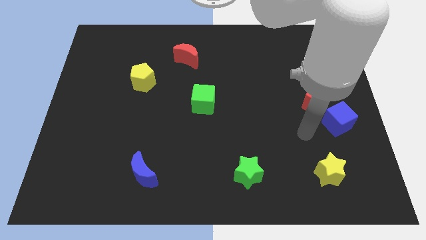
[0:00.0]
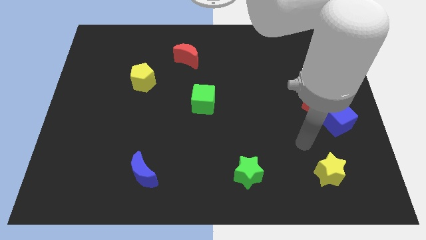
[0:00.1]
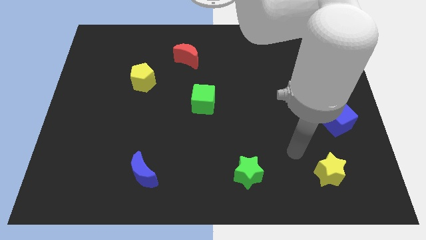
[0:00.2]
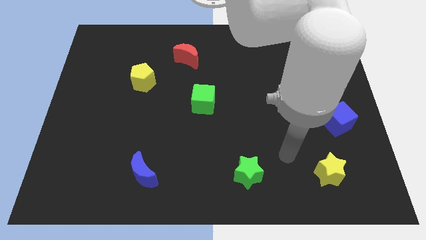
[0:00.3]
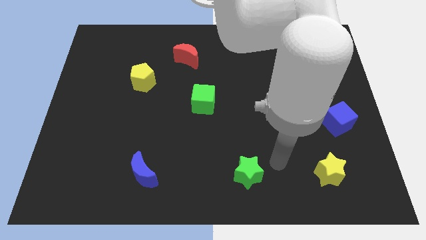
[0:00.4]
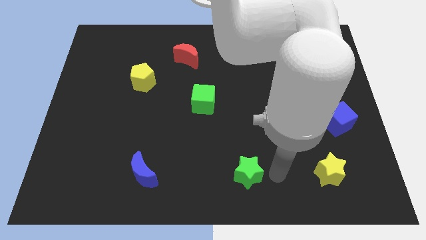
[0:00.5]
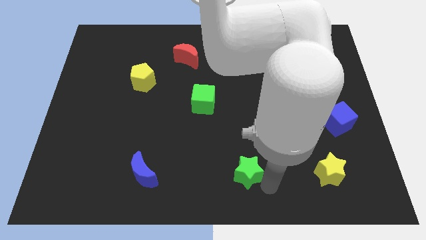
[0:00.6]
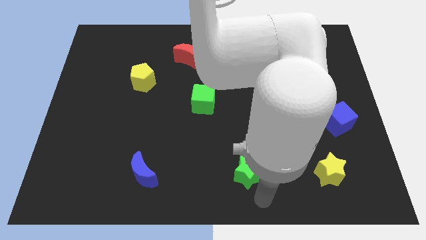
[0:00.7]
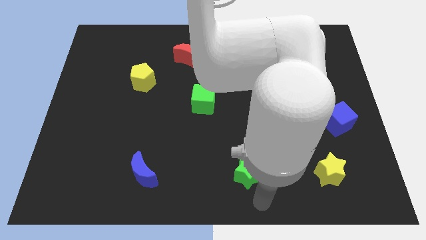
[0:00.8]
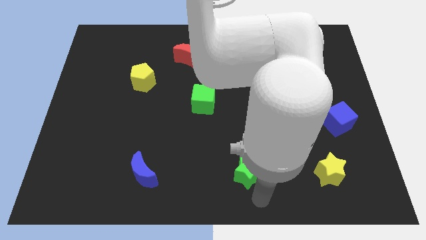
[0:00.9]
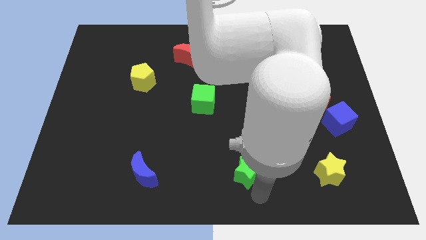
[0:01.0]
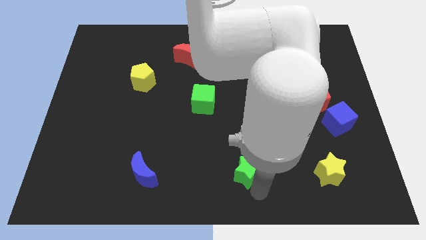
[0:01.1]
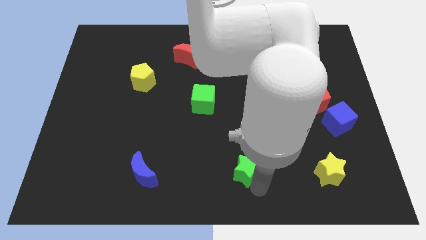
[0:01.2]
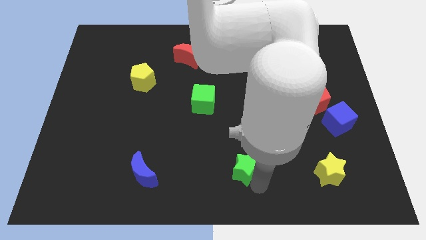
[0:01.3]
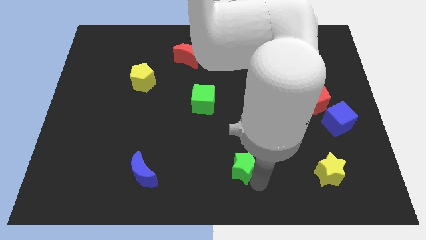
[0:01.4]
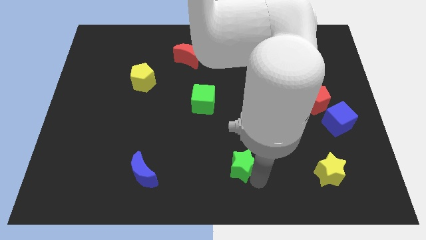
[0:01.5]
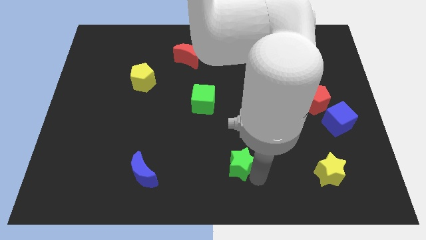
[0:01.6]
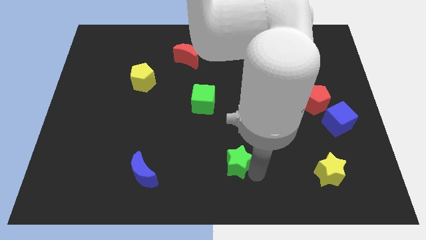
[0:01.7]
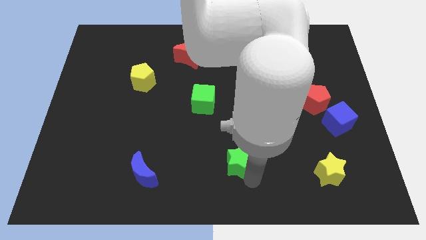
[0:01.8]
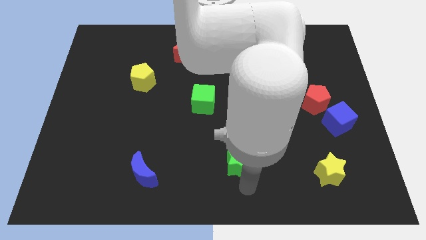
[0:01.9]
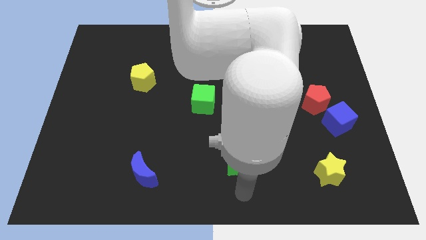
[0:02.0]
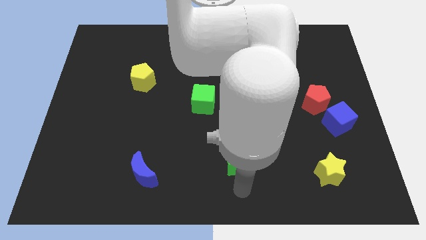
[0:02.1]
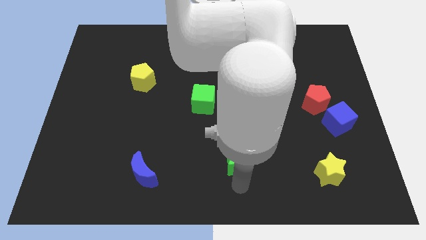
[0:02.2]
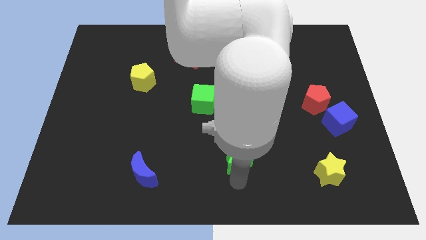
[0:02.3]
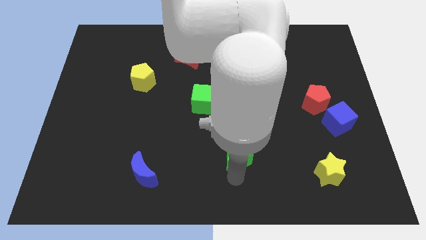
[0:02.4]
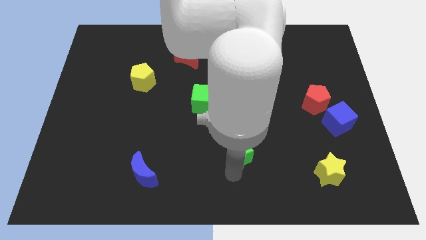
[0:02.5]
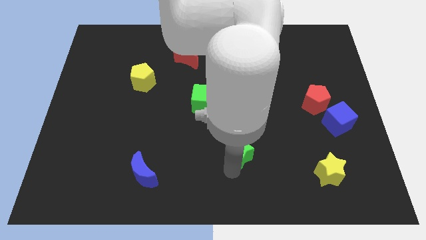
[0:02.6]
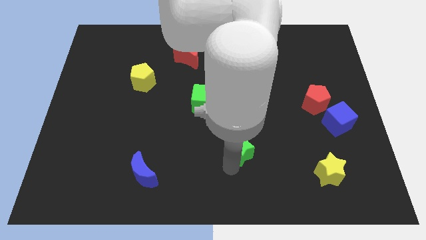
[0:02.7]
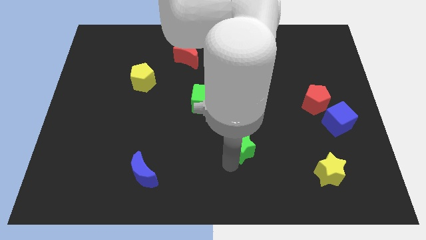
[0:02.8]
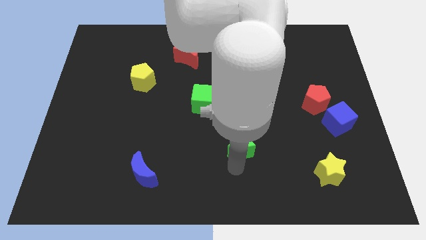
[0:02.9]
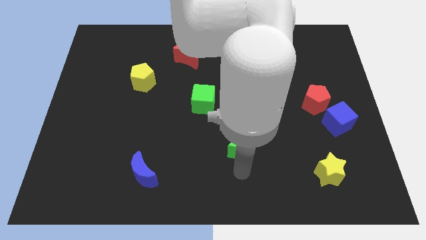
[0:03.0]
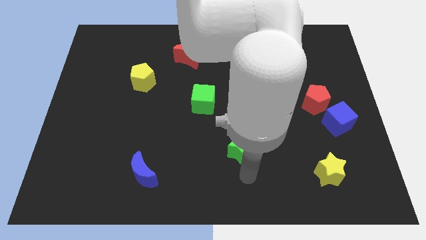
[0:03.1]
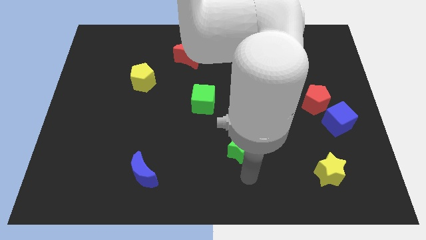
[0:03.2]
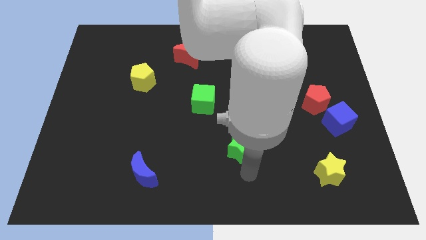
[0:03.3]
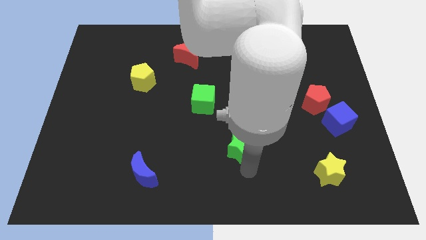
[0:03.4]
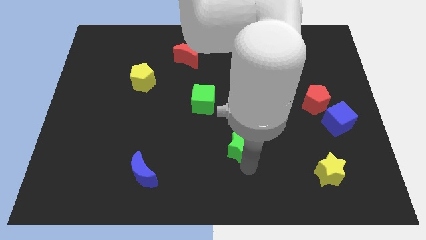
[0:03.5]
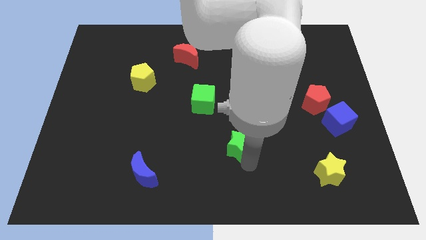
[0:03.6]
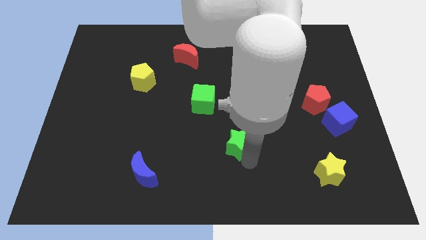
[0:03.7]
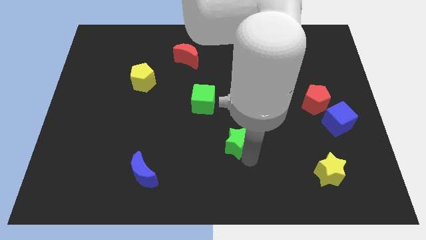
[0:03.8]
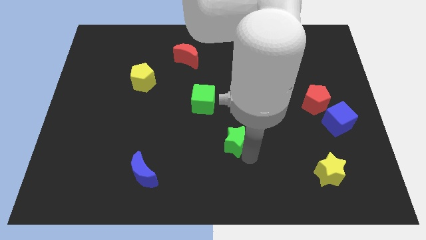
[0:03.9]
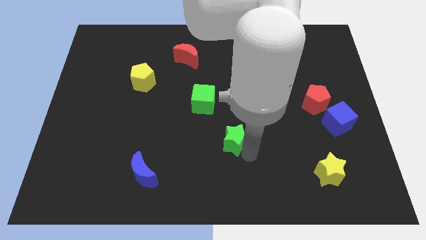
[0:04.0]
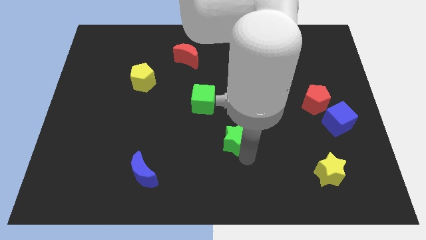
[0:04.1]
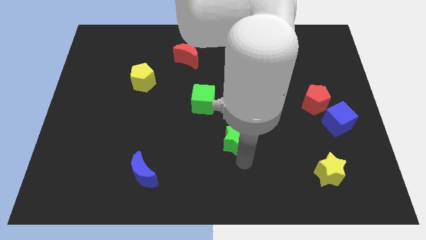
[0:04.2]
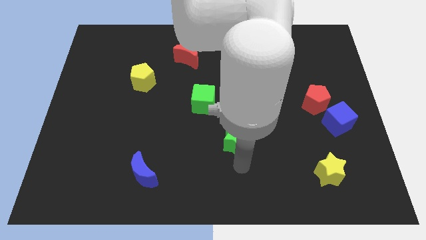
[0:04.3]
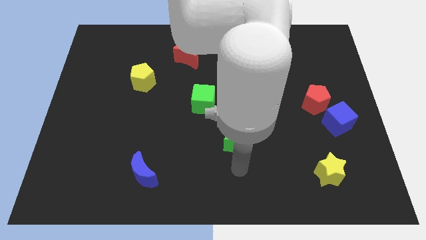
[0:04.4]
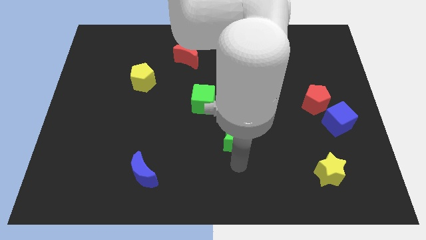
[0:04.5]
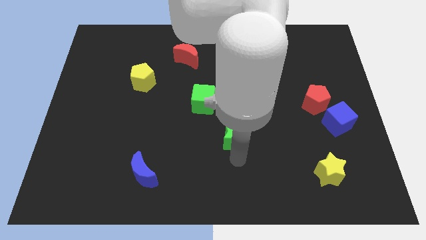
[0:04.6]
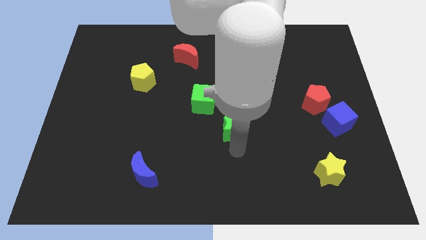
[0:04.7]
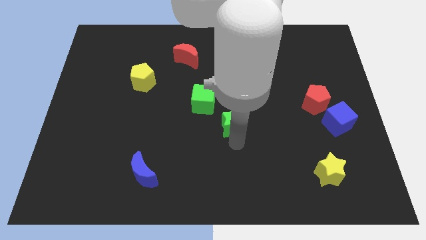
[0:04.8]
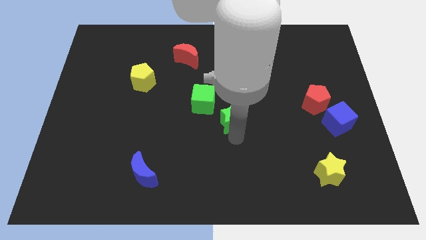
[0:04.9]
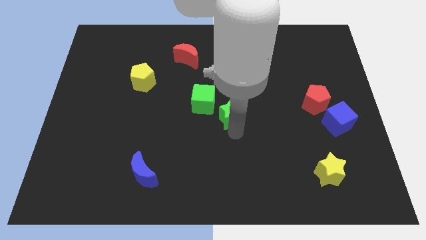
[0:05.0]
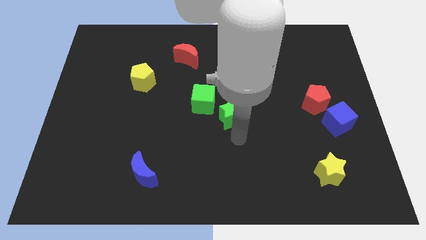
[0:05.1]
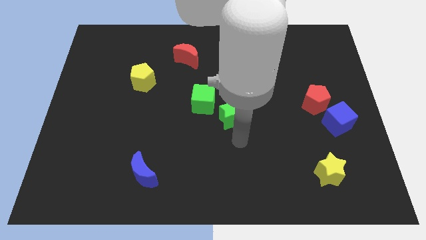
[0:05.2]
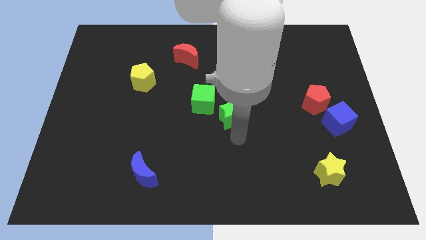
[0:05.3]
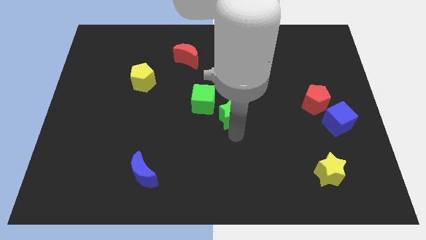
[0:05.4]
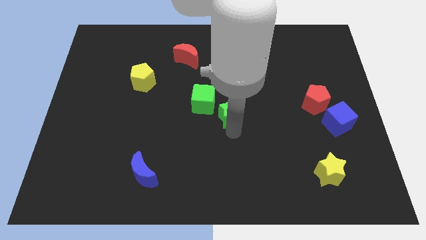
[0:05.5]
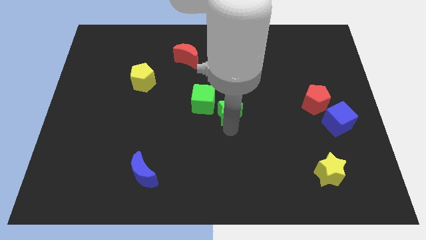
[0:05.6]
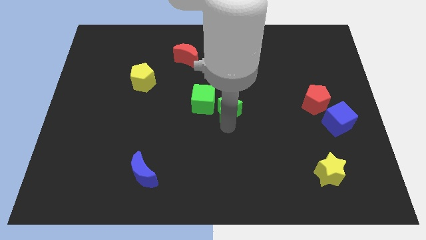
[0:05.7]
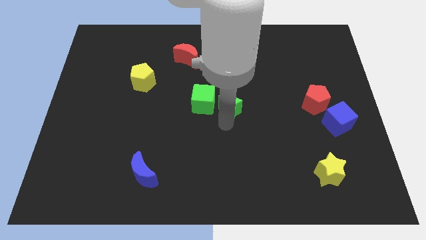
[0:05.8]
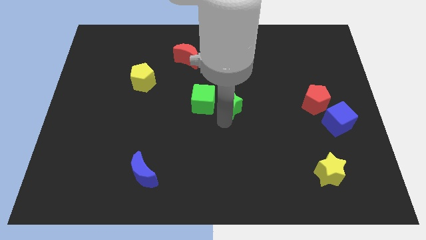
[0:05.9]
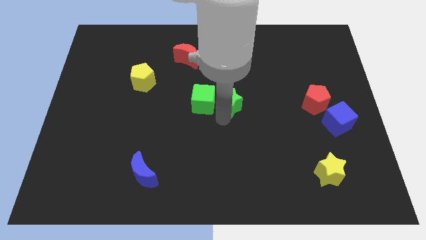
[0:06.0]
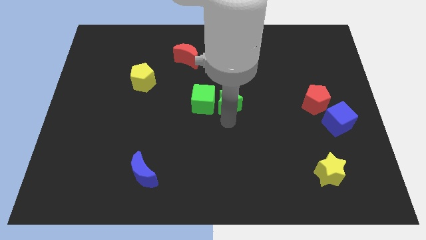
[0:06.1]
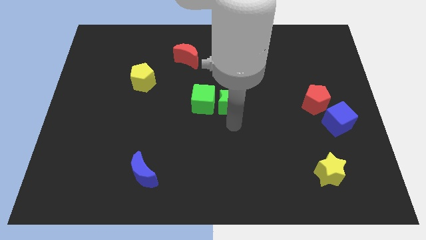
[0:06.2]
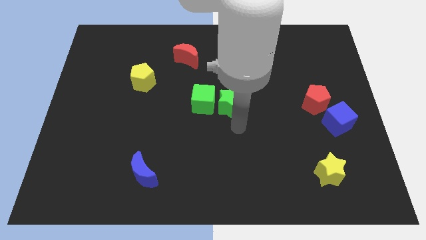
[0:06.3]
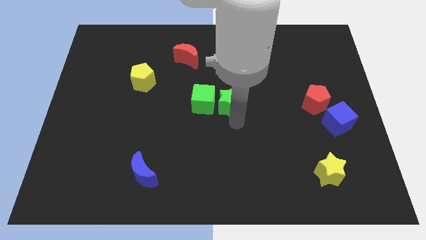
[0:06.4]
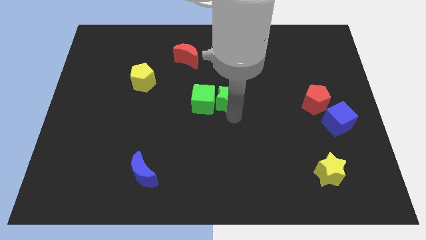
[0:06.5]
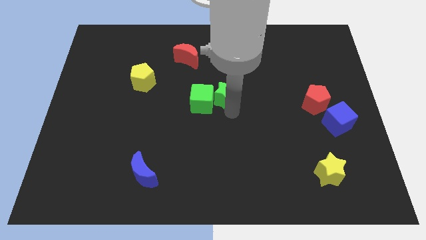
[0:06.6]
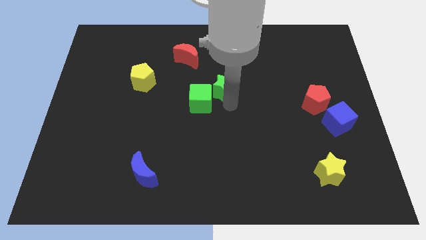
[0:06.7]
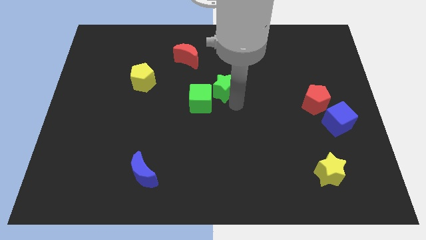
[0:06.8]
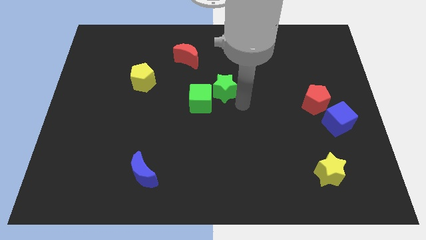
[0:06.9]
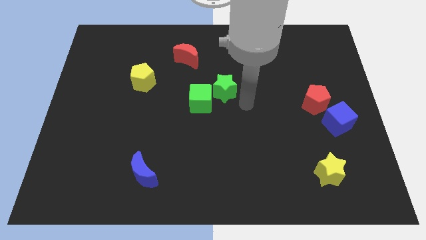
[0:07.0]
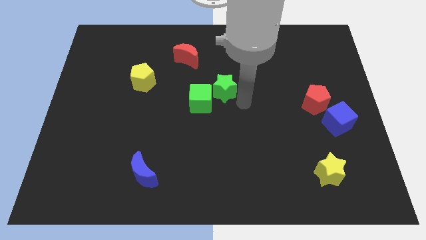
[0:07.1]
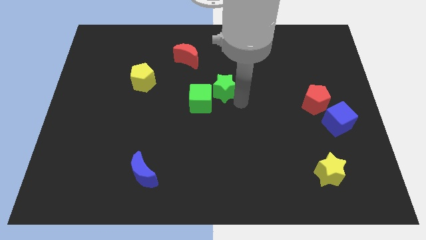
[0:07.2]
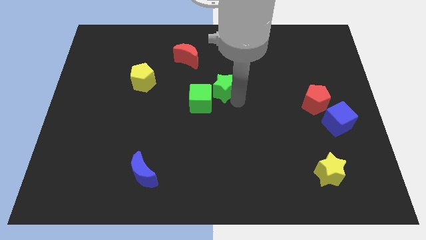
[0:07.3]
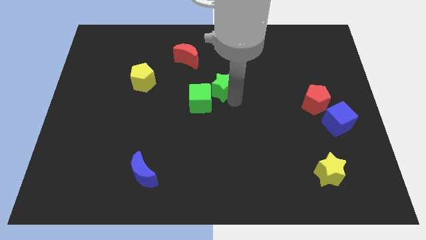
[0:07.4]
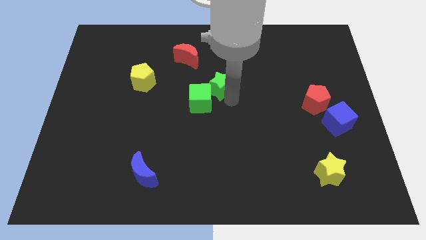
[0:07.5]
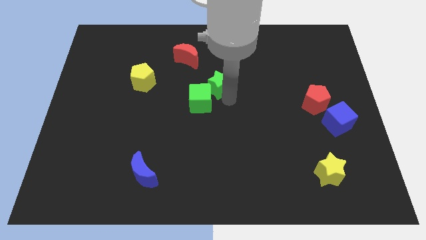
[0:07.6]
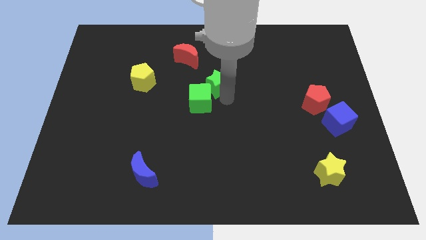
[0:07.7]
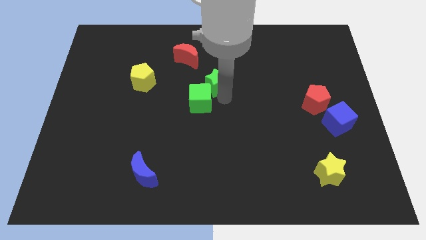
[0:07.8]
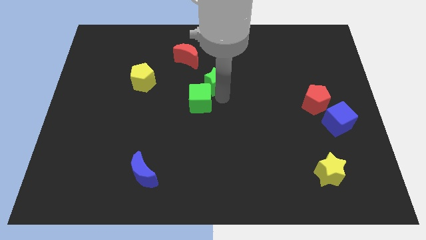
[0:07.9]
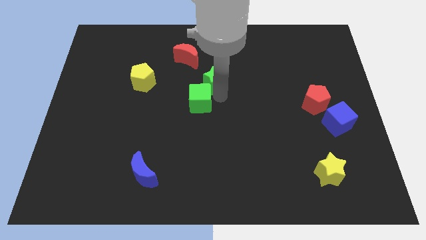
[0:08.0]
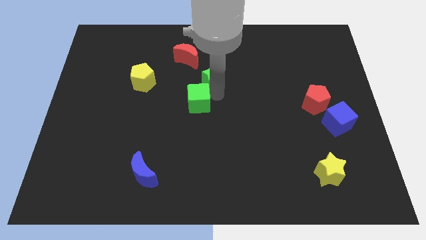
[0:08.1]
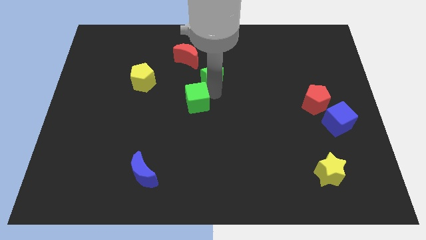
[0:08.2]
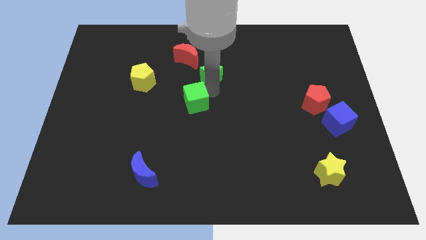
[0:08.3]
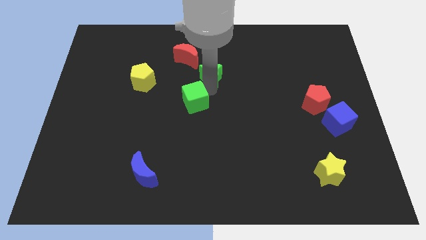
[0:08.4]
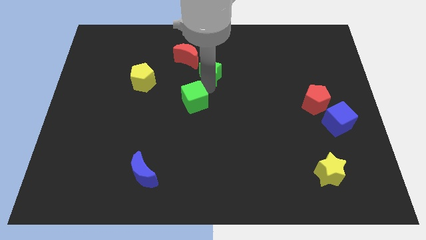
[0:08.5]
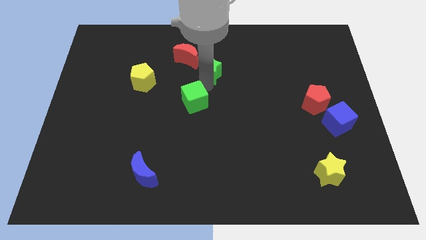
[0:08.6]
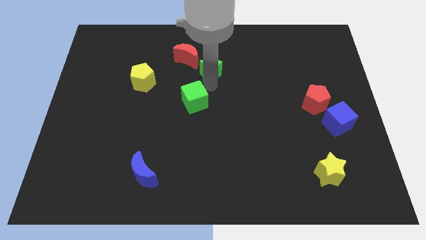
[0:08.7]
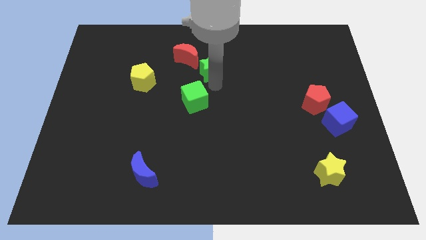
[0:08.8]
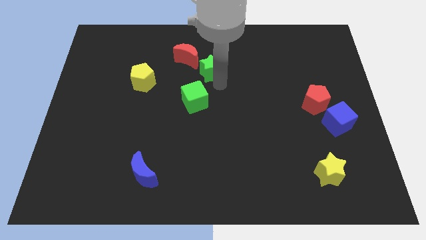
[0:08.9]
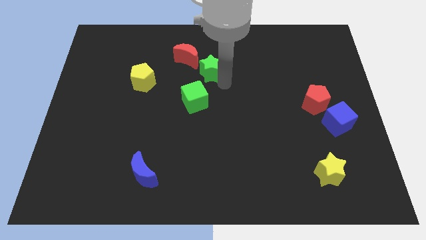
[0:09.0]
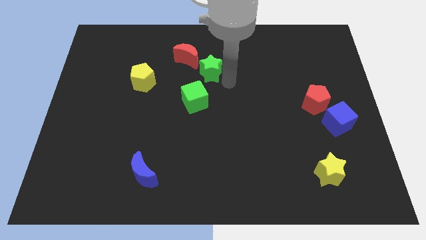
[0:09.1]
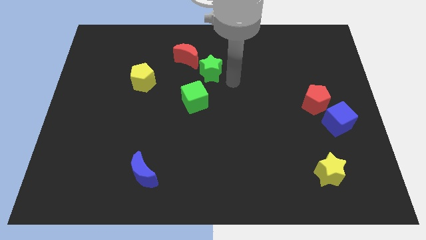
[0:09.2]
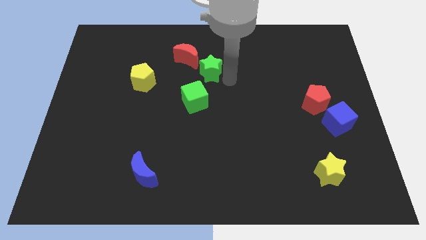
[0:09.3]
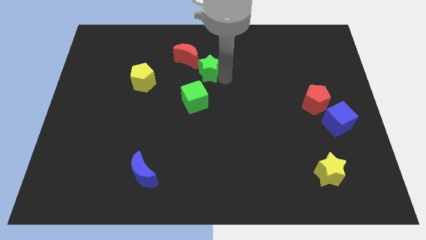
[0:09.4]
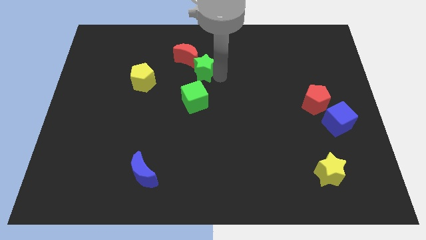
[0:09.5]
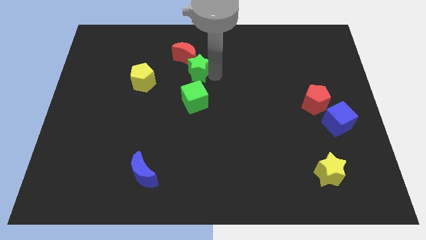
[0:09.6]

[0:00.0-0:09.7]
put the green star close to the red moon
